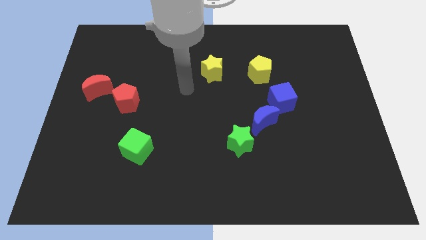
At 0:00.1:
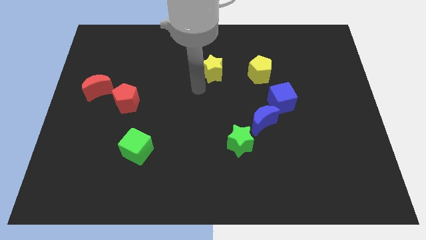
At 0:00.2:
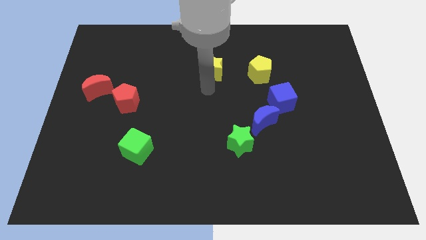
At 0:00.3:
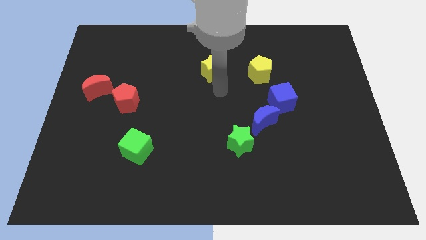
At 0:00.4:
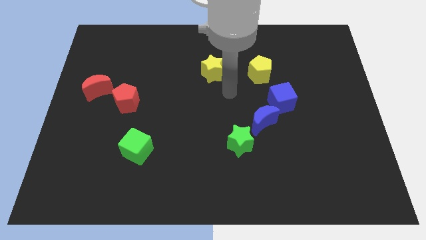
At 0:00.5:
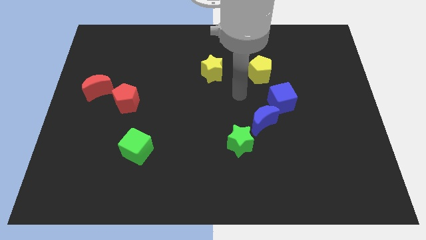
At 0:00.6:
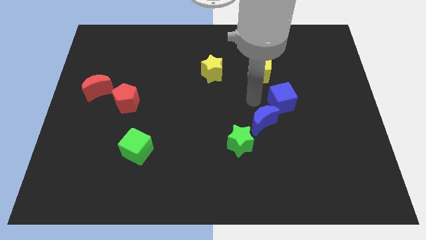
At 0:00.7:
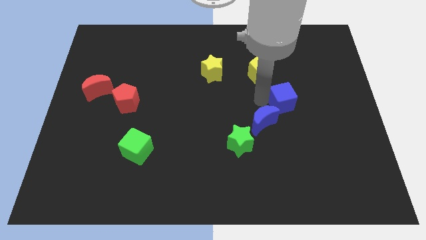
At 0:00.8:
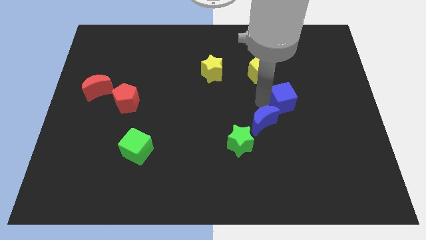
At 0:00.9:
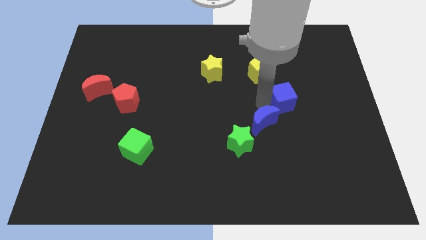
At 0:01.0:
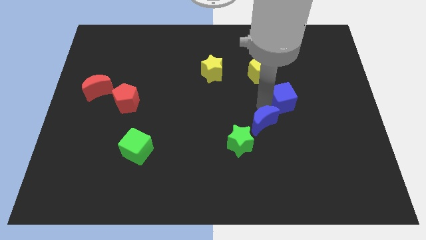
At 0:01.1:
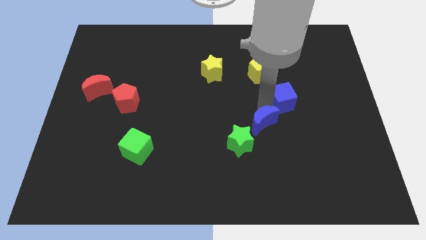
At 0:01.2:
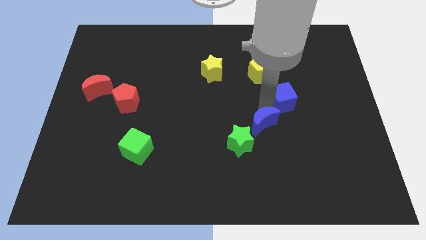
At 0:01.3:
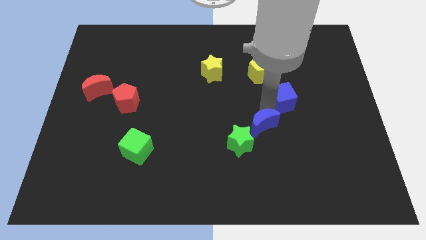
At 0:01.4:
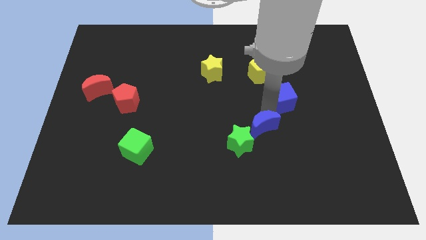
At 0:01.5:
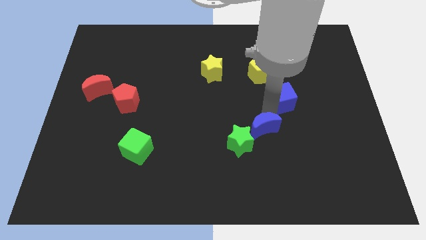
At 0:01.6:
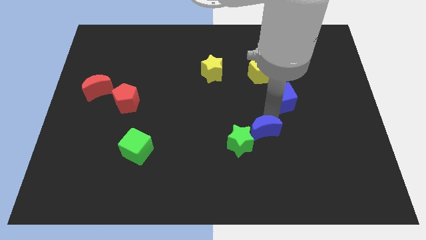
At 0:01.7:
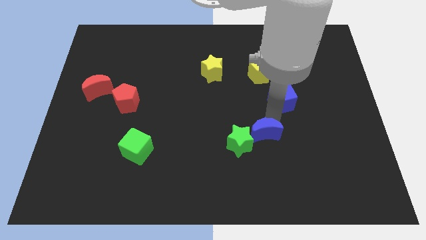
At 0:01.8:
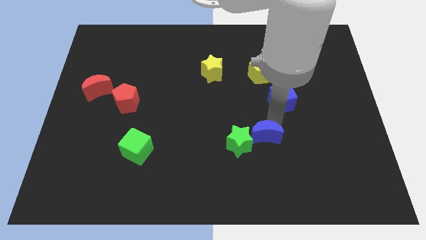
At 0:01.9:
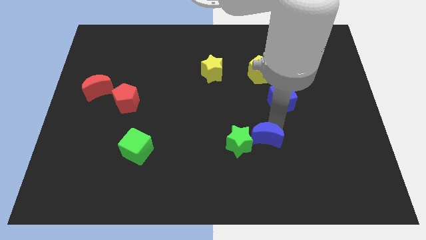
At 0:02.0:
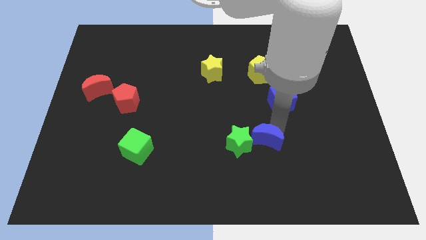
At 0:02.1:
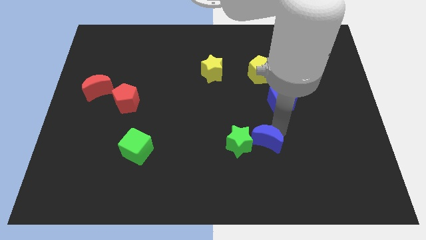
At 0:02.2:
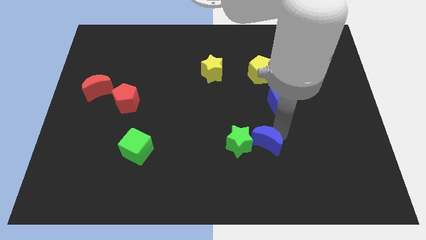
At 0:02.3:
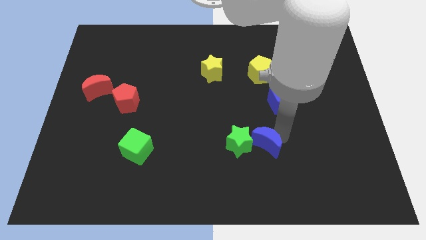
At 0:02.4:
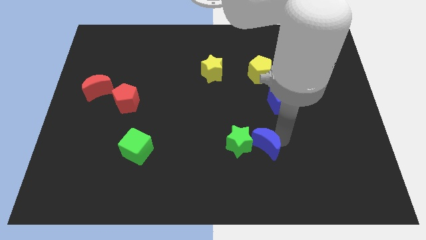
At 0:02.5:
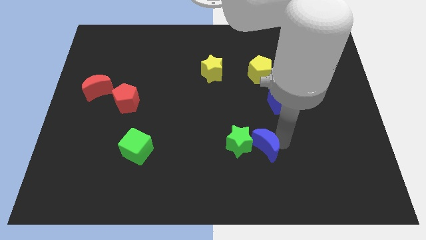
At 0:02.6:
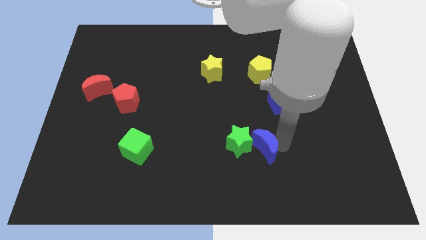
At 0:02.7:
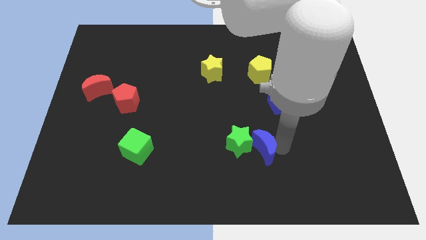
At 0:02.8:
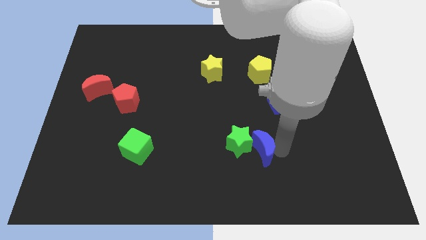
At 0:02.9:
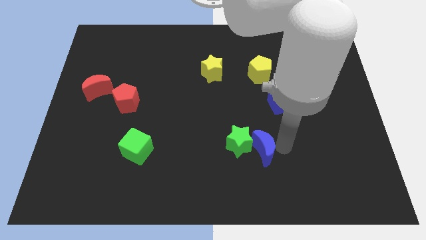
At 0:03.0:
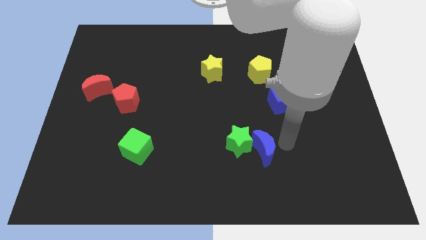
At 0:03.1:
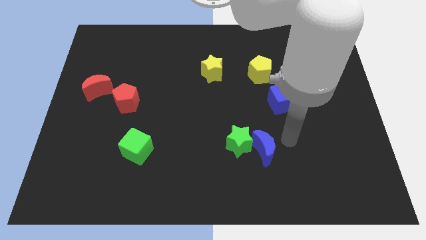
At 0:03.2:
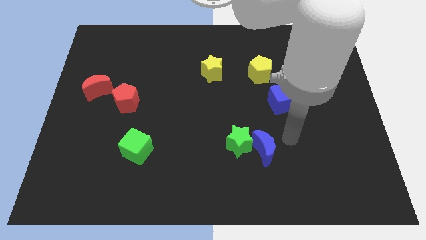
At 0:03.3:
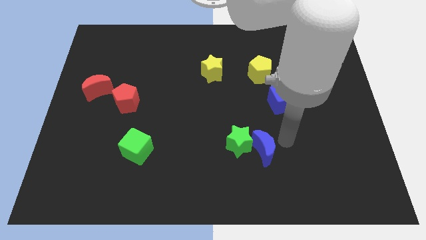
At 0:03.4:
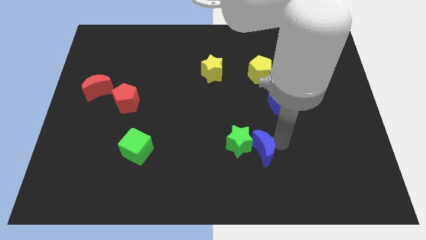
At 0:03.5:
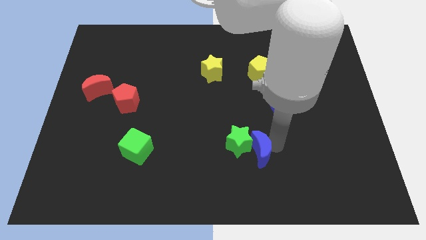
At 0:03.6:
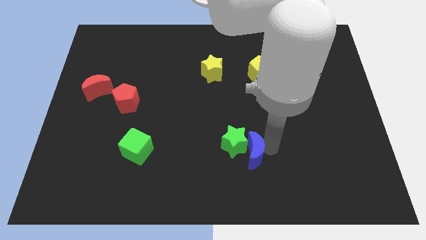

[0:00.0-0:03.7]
move the blue moon a little bit down and to the left

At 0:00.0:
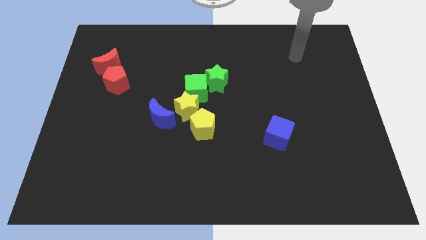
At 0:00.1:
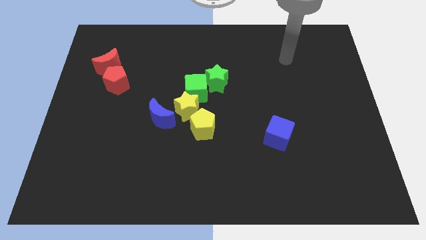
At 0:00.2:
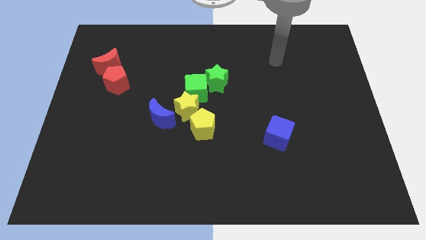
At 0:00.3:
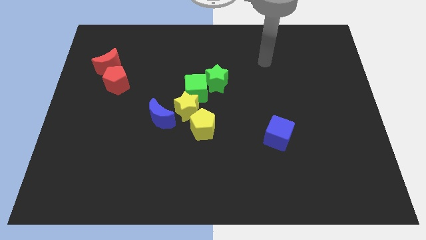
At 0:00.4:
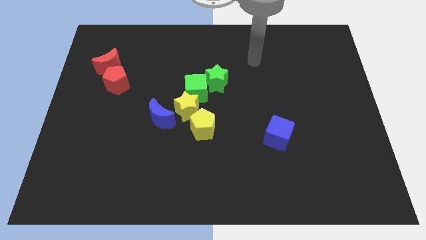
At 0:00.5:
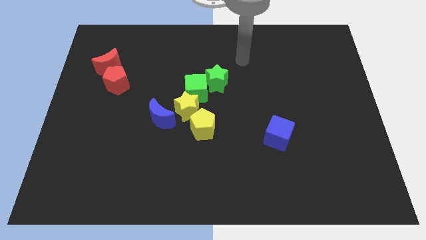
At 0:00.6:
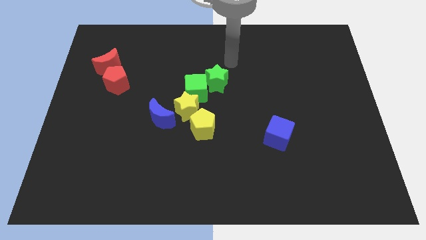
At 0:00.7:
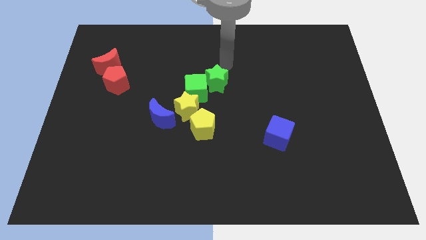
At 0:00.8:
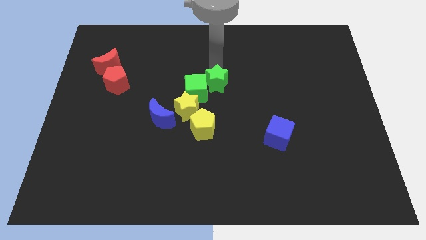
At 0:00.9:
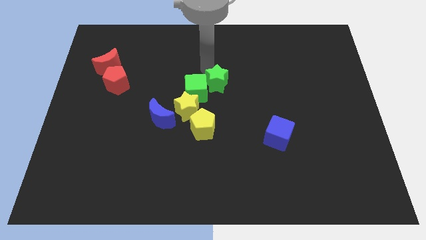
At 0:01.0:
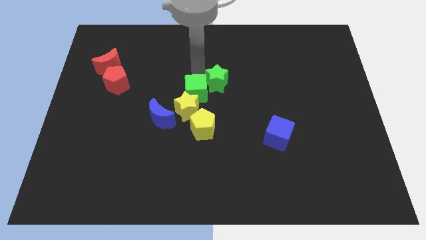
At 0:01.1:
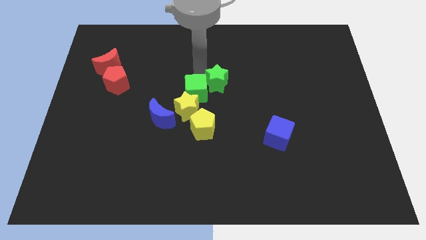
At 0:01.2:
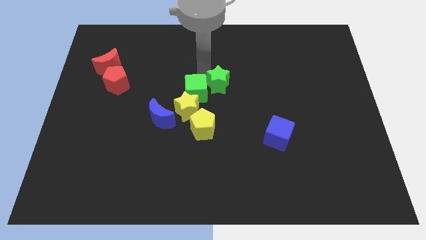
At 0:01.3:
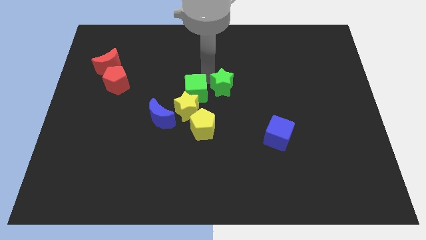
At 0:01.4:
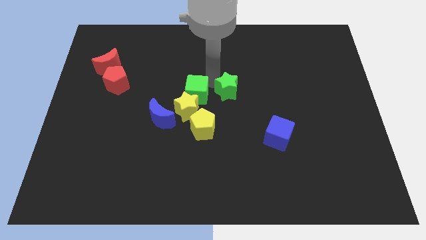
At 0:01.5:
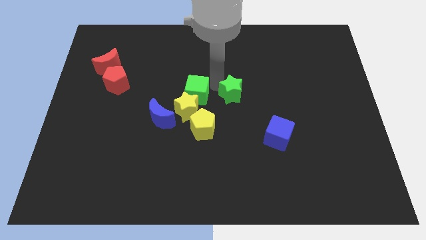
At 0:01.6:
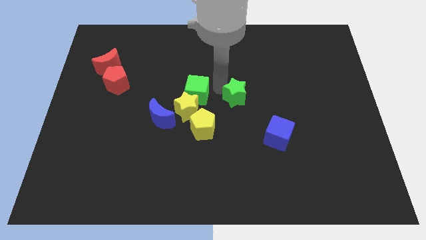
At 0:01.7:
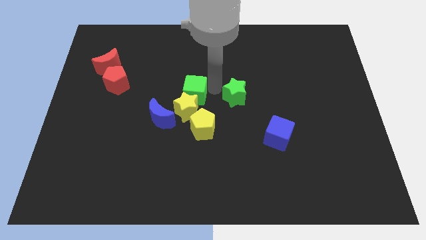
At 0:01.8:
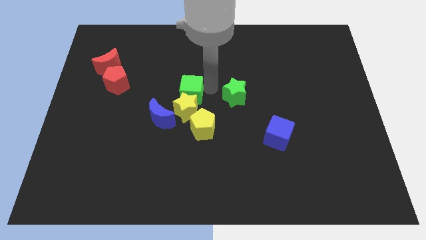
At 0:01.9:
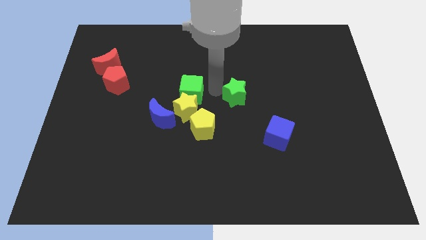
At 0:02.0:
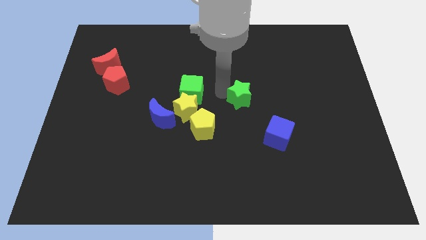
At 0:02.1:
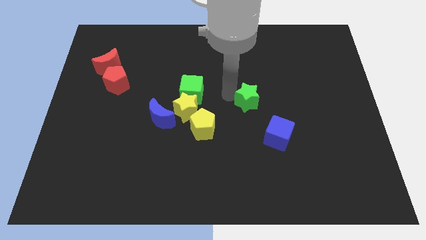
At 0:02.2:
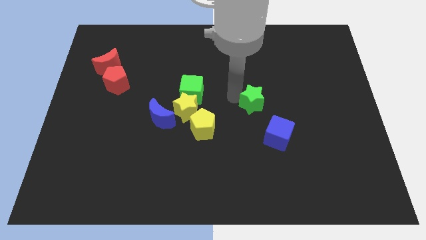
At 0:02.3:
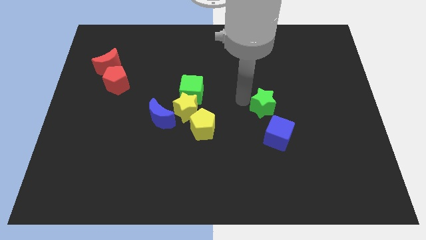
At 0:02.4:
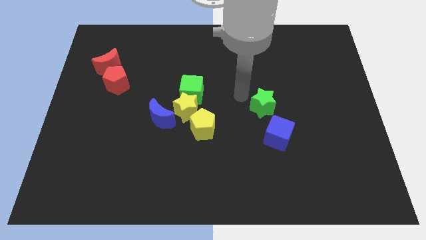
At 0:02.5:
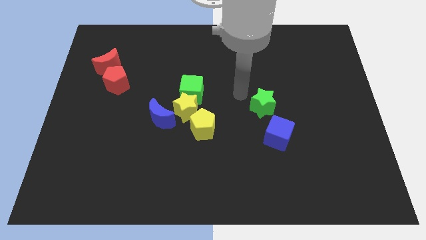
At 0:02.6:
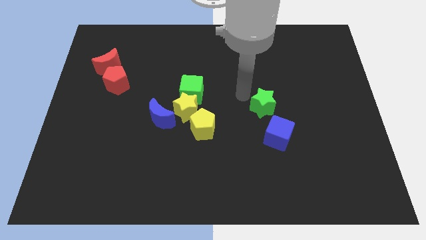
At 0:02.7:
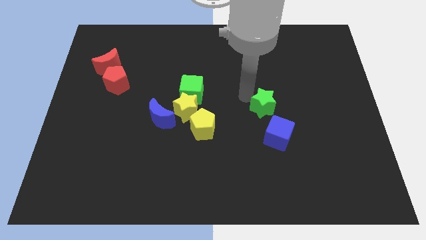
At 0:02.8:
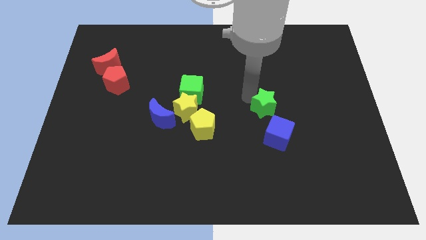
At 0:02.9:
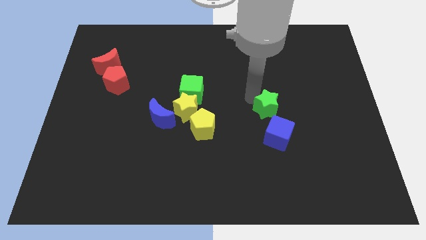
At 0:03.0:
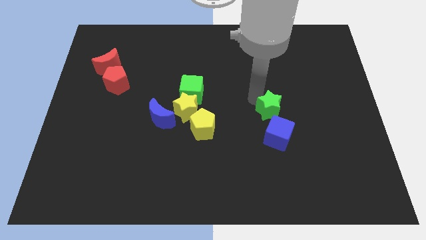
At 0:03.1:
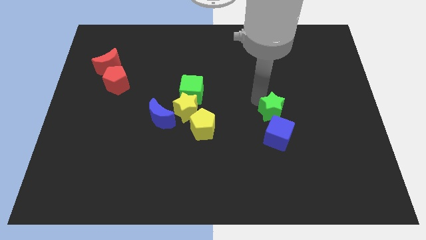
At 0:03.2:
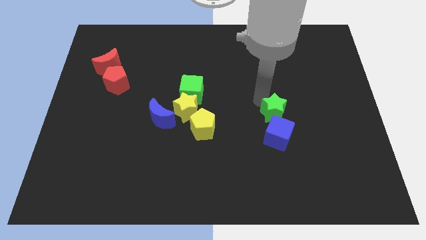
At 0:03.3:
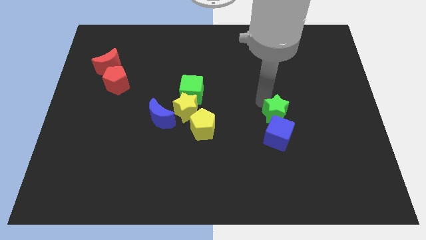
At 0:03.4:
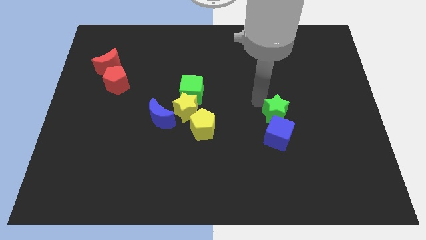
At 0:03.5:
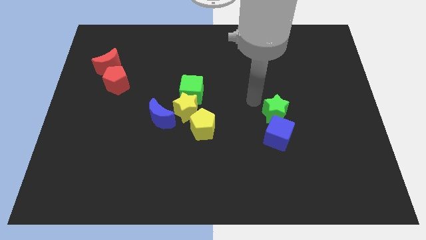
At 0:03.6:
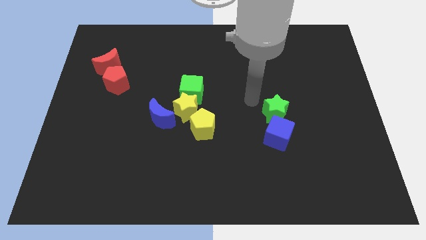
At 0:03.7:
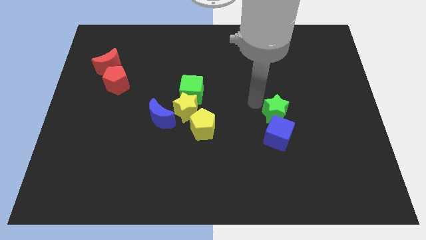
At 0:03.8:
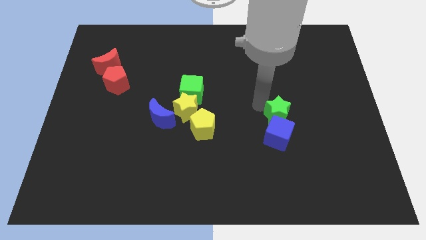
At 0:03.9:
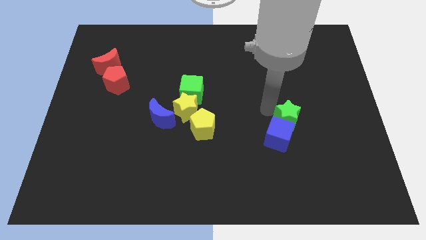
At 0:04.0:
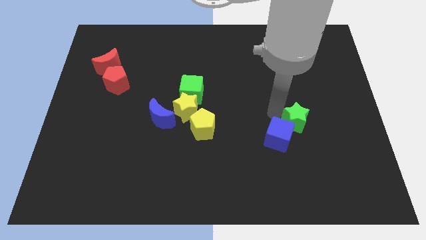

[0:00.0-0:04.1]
slide the green star diagonally down and to the right

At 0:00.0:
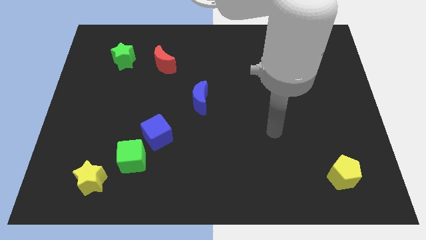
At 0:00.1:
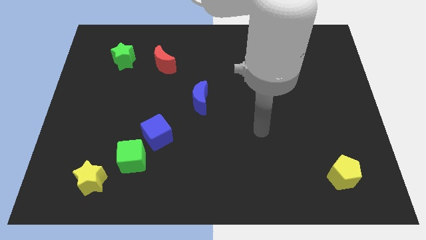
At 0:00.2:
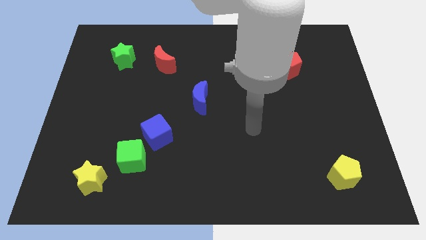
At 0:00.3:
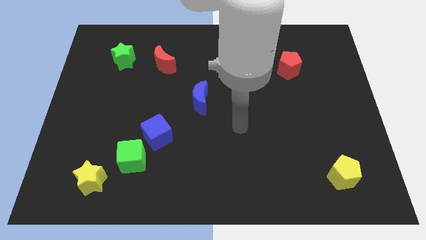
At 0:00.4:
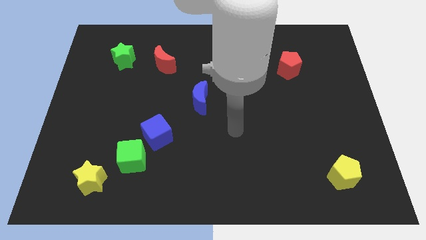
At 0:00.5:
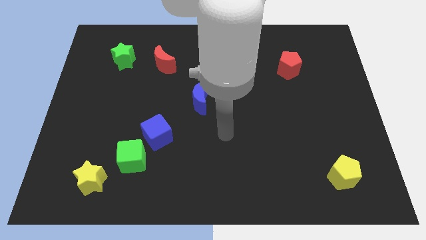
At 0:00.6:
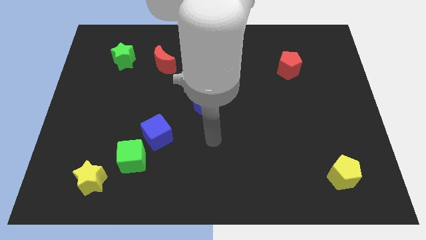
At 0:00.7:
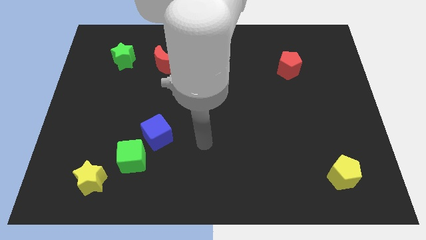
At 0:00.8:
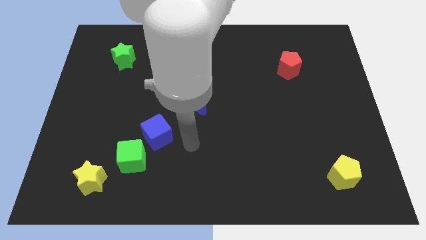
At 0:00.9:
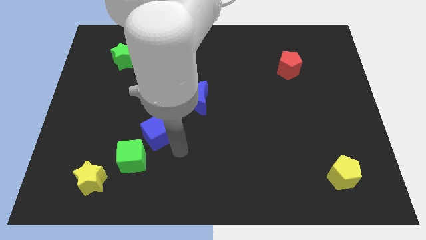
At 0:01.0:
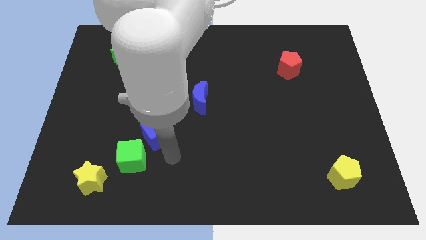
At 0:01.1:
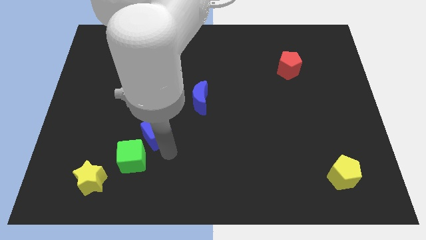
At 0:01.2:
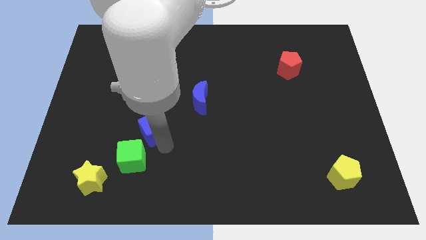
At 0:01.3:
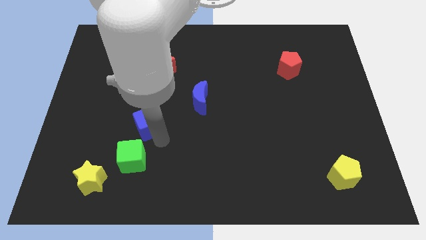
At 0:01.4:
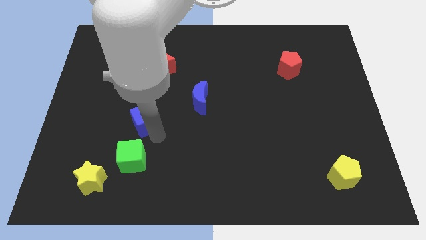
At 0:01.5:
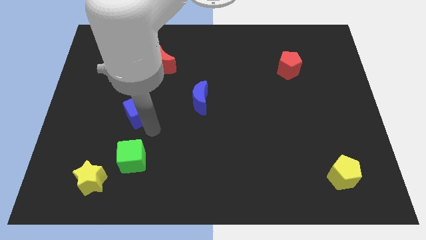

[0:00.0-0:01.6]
move the blue cube a little up and to the left
